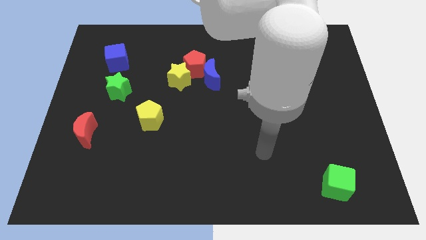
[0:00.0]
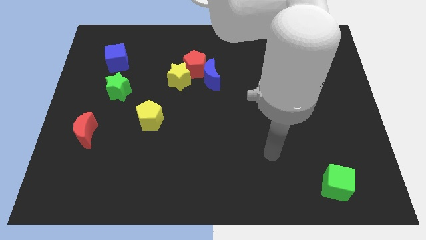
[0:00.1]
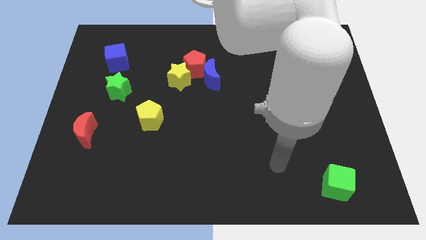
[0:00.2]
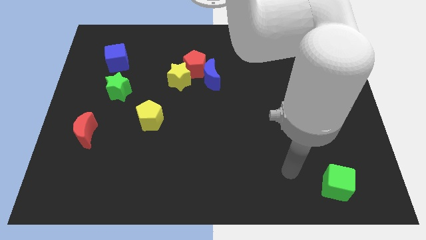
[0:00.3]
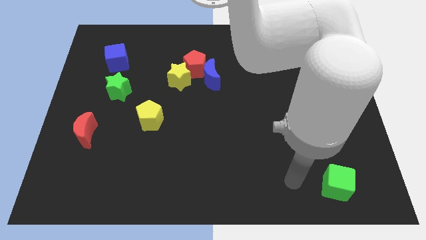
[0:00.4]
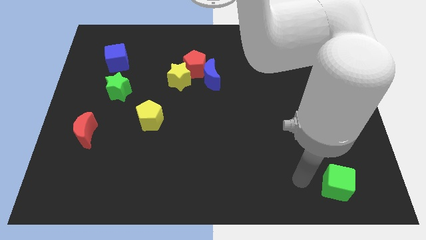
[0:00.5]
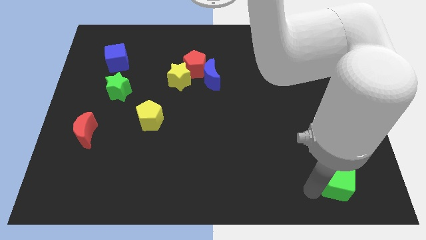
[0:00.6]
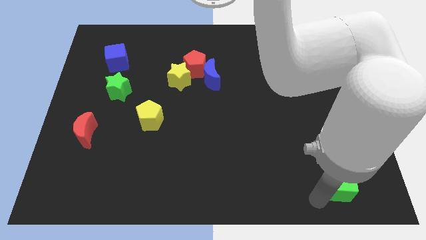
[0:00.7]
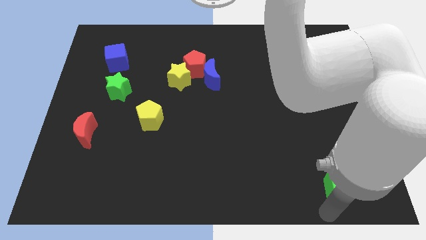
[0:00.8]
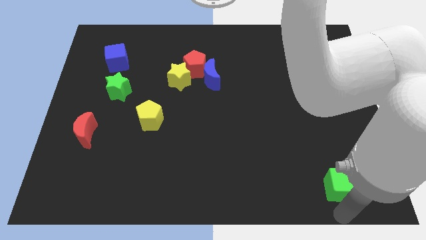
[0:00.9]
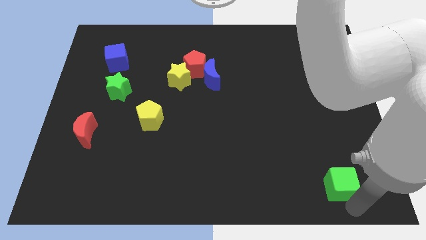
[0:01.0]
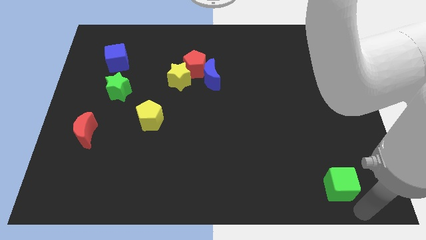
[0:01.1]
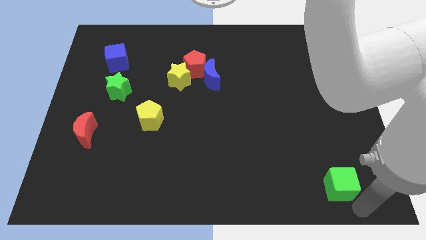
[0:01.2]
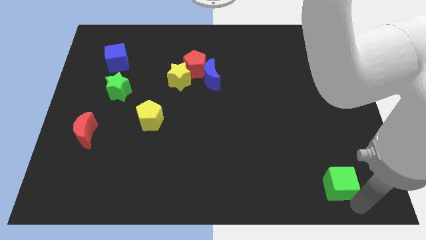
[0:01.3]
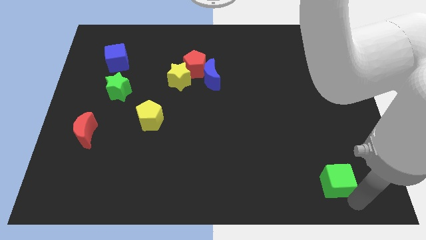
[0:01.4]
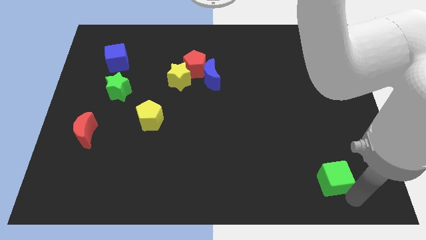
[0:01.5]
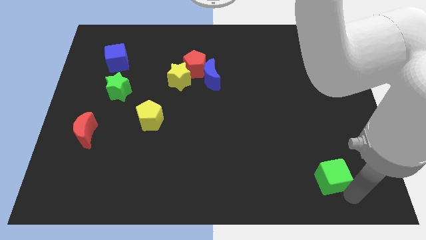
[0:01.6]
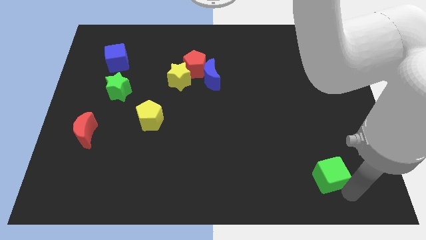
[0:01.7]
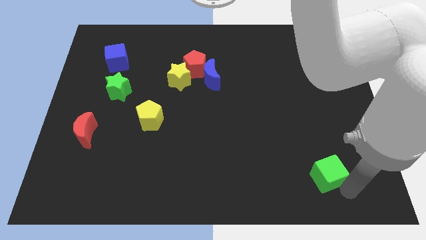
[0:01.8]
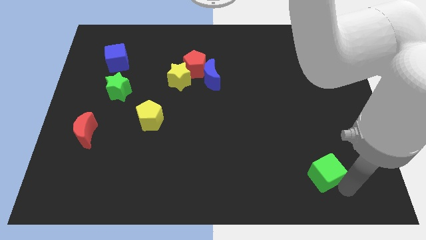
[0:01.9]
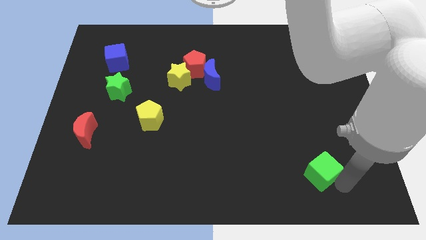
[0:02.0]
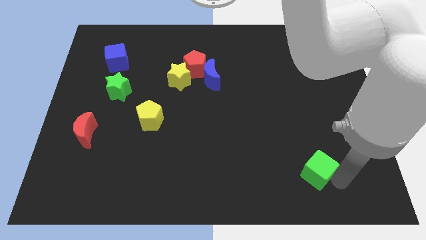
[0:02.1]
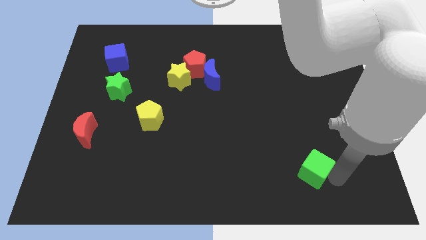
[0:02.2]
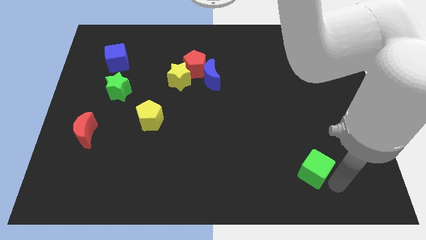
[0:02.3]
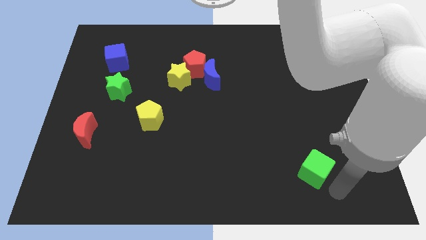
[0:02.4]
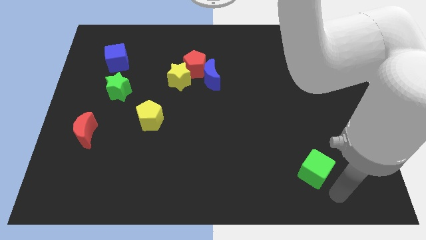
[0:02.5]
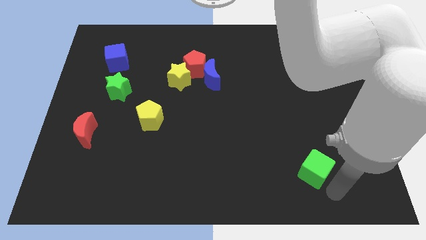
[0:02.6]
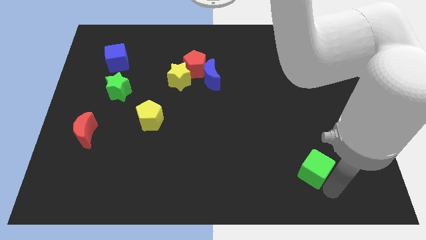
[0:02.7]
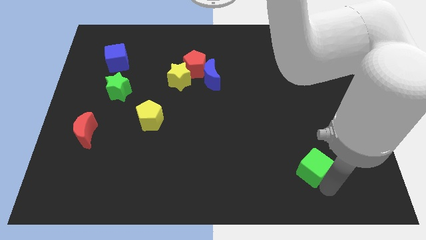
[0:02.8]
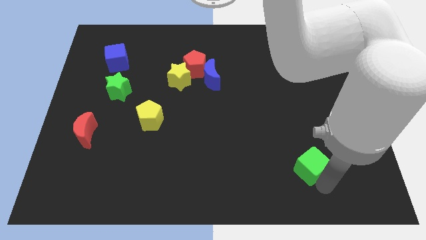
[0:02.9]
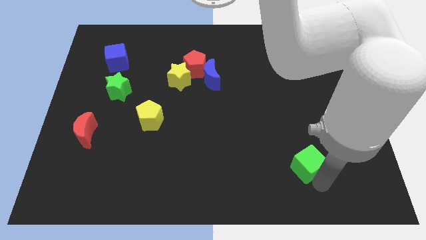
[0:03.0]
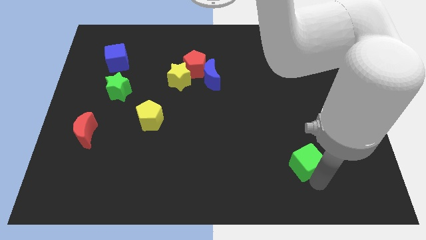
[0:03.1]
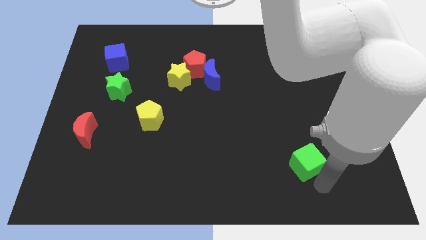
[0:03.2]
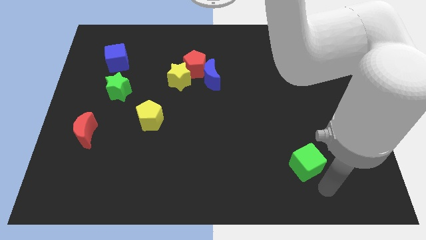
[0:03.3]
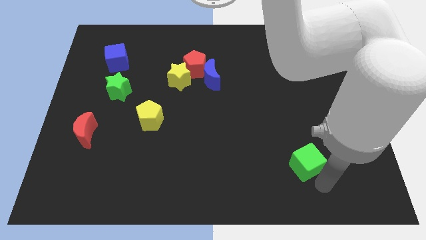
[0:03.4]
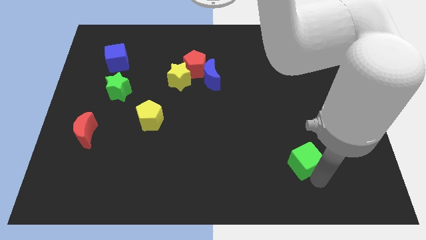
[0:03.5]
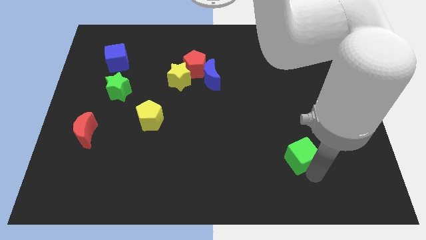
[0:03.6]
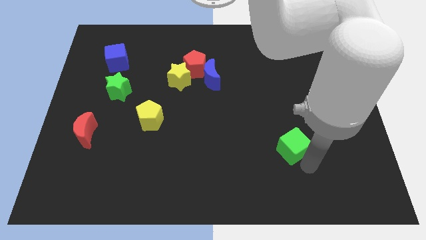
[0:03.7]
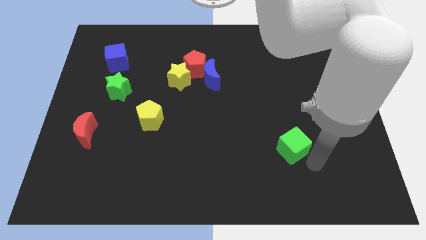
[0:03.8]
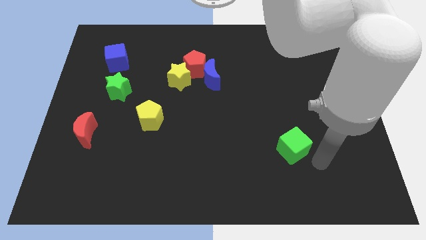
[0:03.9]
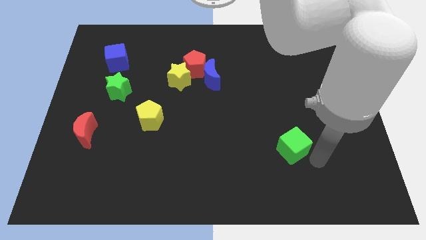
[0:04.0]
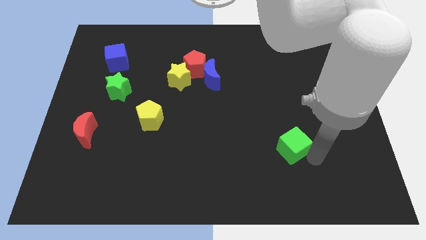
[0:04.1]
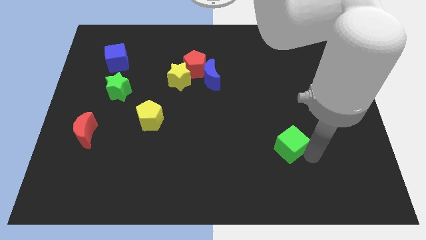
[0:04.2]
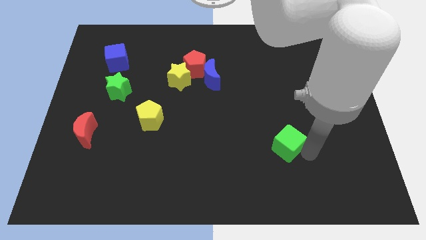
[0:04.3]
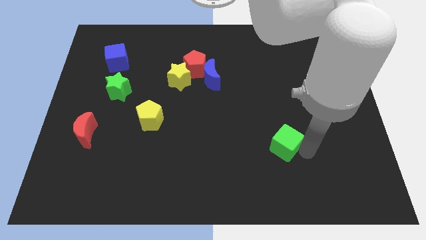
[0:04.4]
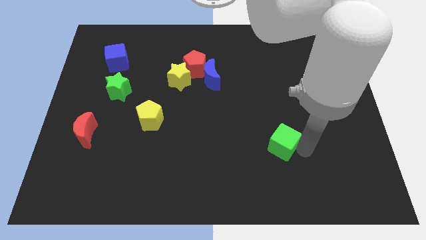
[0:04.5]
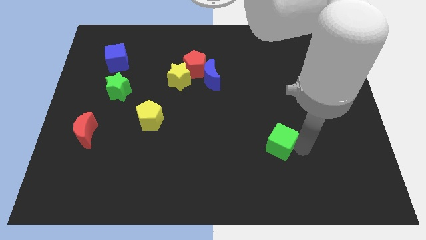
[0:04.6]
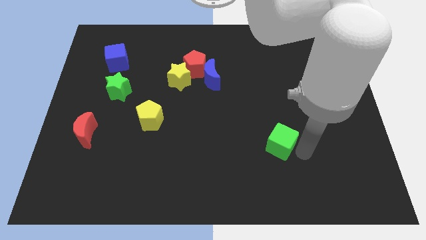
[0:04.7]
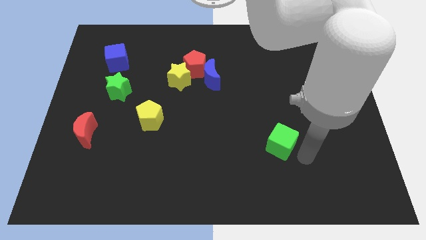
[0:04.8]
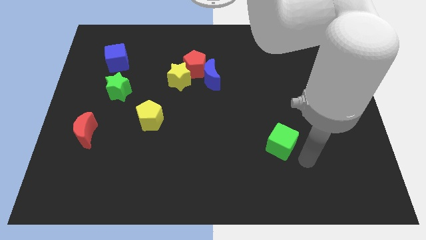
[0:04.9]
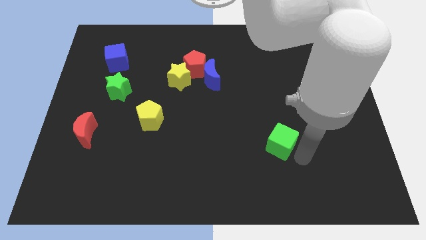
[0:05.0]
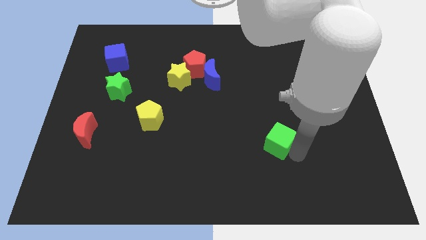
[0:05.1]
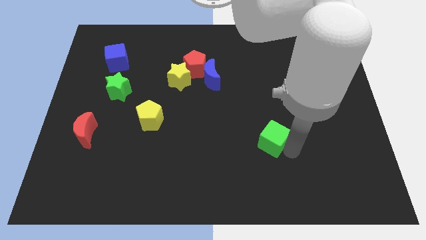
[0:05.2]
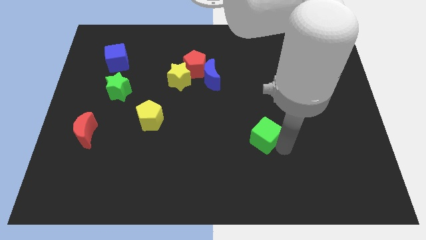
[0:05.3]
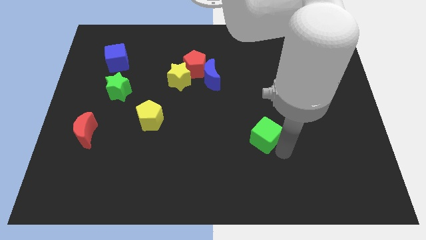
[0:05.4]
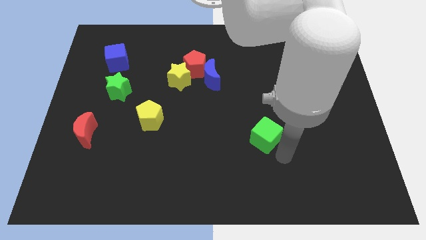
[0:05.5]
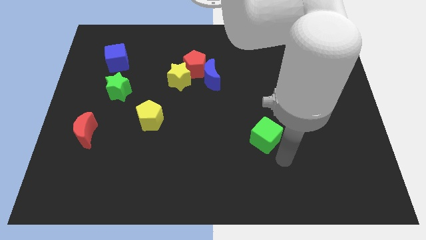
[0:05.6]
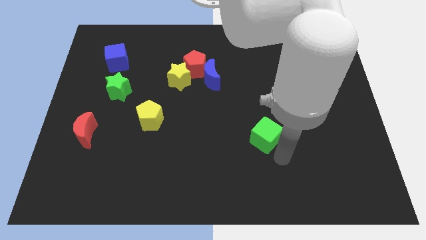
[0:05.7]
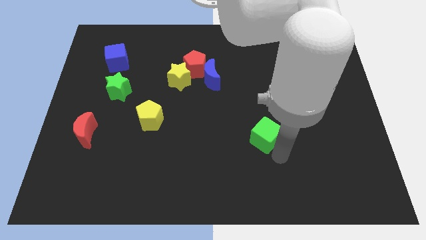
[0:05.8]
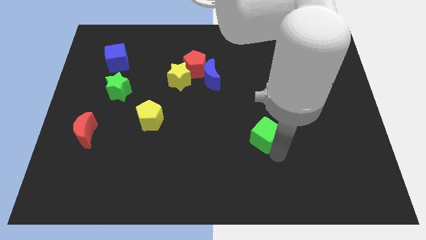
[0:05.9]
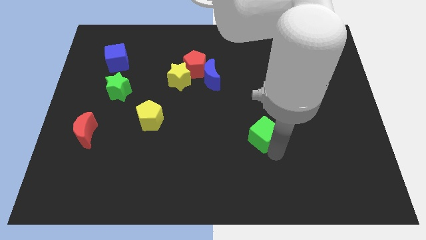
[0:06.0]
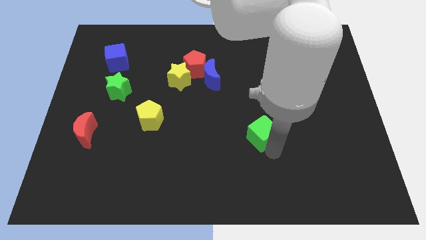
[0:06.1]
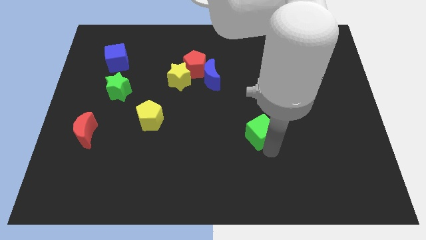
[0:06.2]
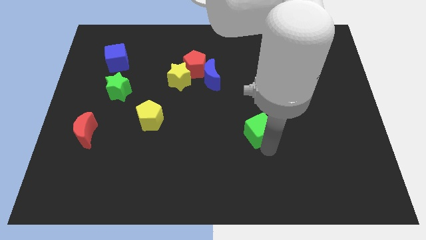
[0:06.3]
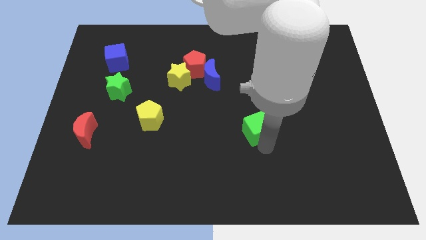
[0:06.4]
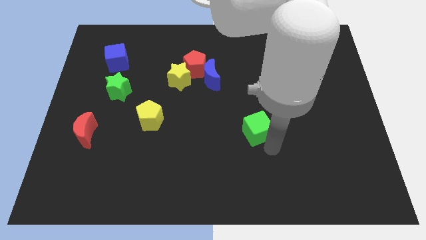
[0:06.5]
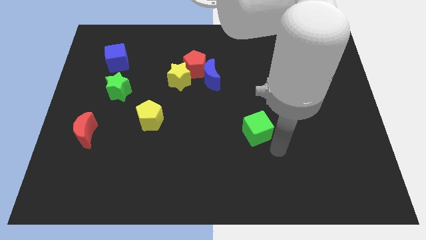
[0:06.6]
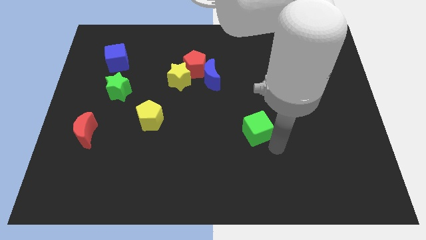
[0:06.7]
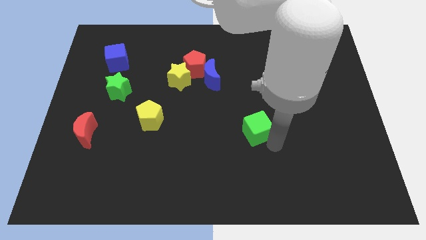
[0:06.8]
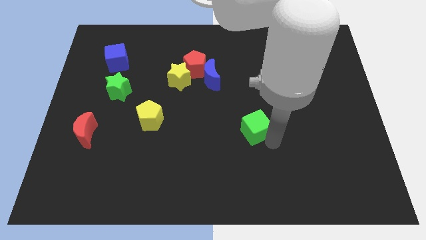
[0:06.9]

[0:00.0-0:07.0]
slide the green cube to the center

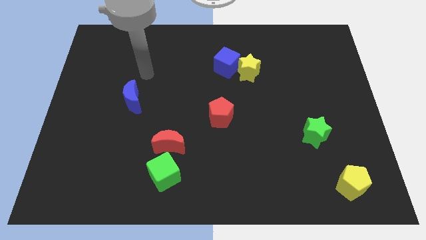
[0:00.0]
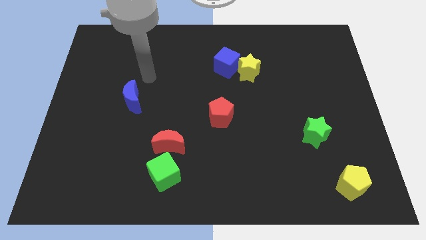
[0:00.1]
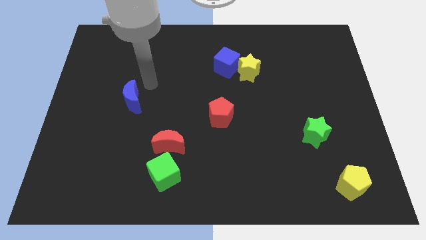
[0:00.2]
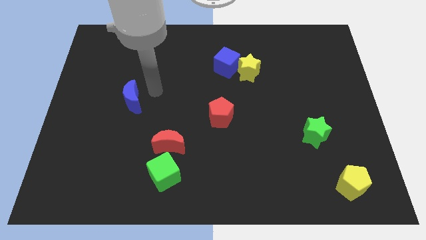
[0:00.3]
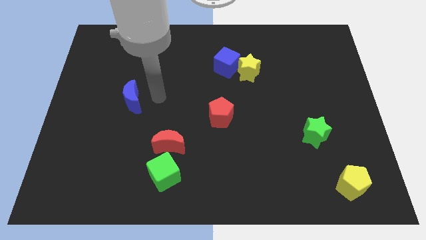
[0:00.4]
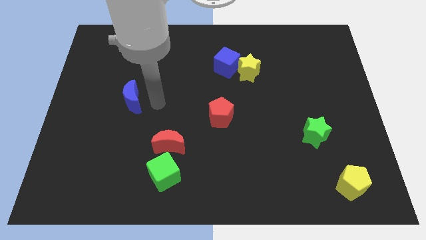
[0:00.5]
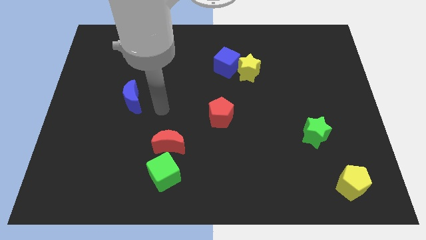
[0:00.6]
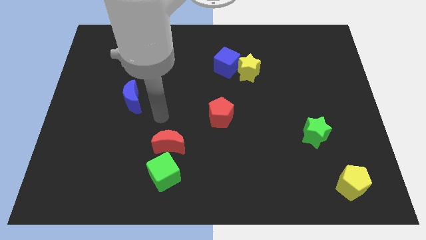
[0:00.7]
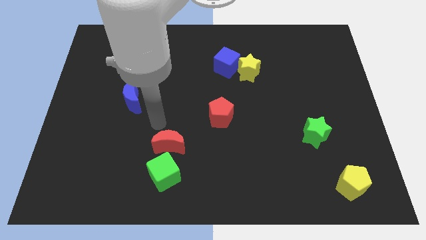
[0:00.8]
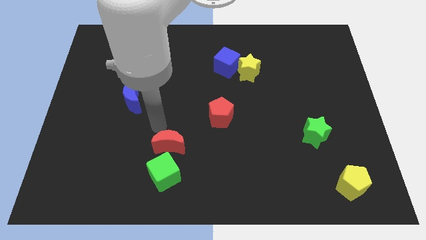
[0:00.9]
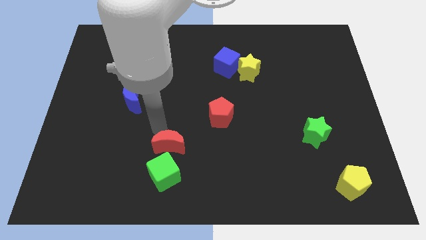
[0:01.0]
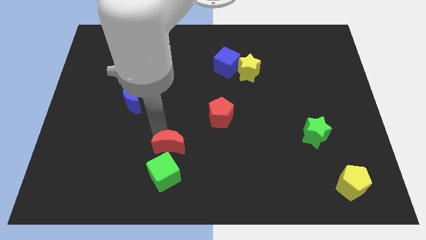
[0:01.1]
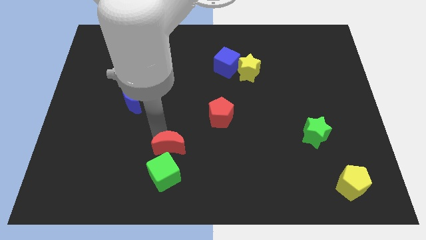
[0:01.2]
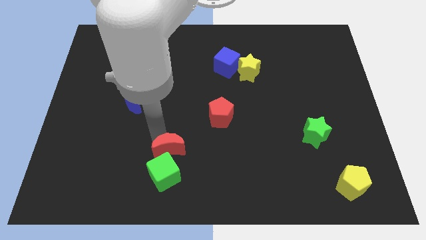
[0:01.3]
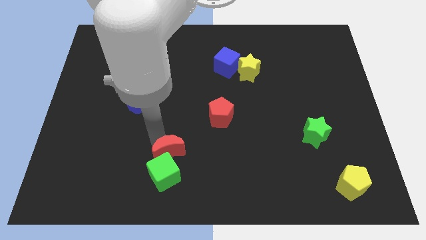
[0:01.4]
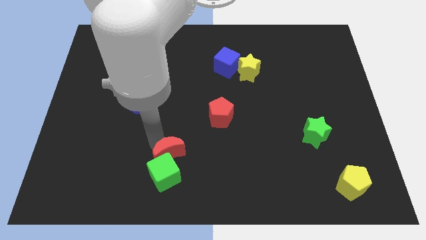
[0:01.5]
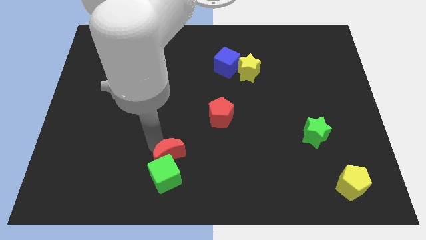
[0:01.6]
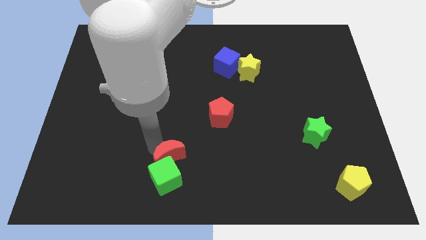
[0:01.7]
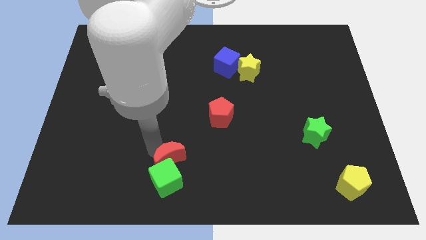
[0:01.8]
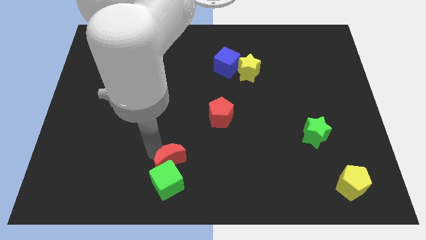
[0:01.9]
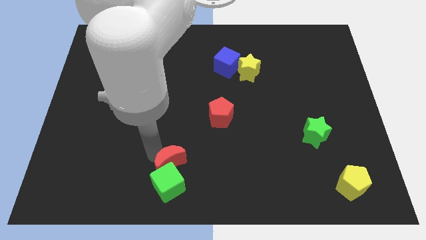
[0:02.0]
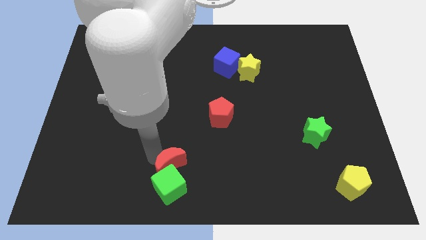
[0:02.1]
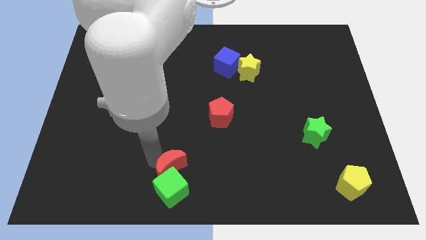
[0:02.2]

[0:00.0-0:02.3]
push the red moon to the bottom
